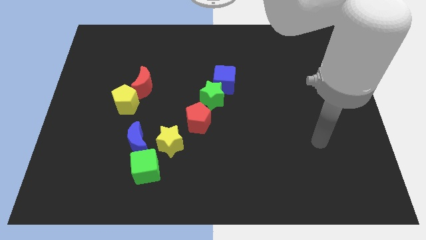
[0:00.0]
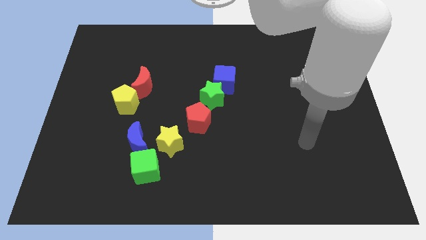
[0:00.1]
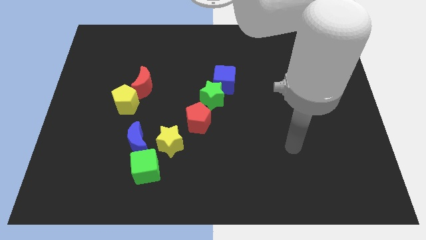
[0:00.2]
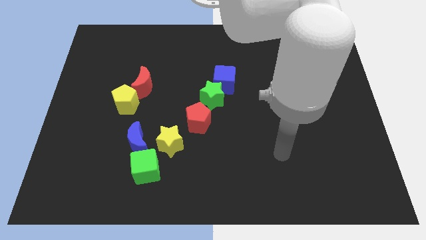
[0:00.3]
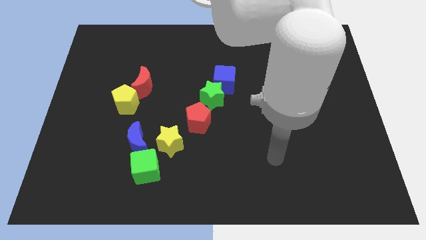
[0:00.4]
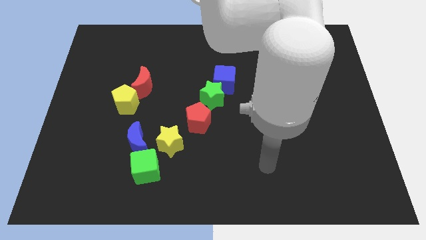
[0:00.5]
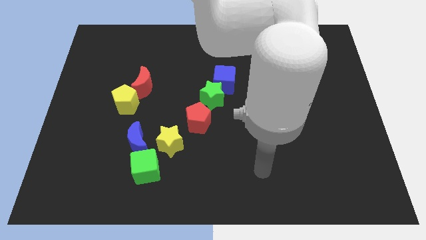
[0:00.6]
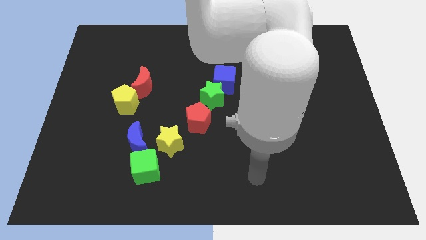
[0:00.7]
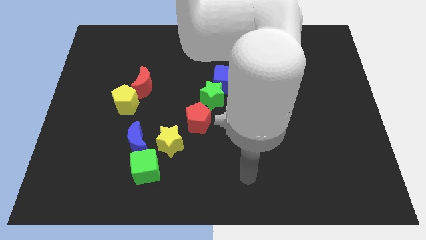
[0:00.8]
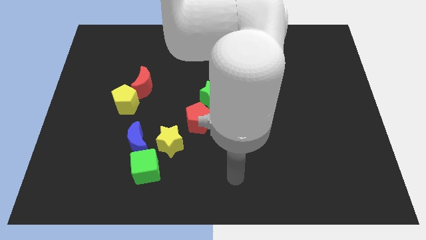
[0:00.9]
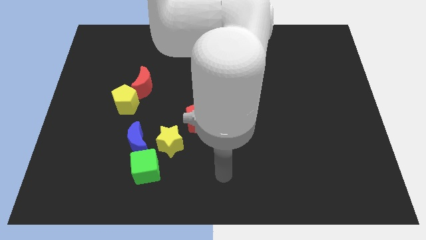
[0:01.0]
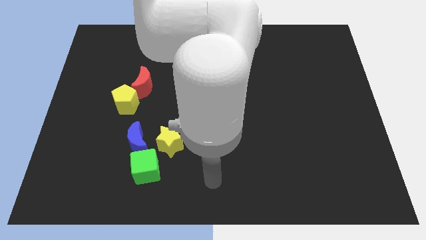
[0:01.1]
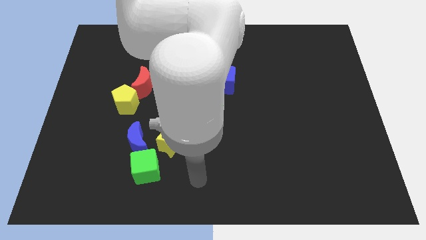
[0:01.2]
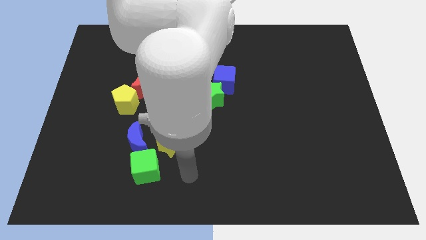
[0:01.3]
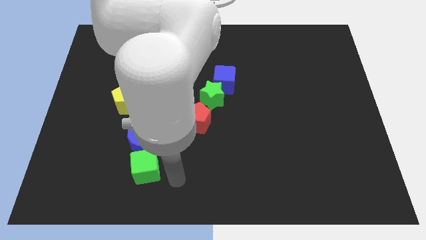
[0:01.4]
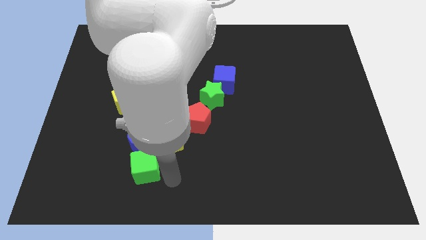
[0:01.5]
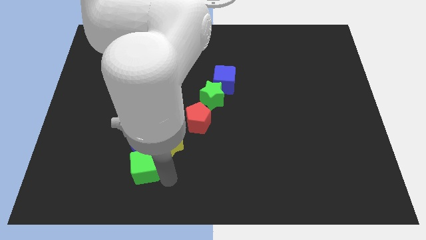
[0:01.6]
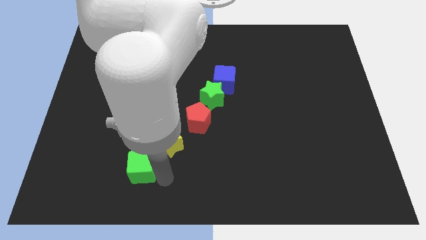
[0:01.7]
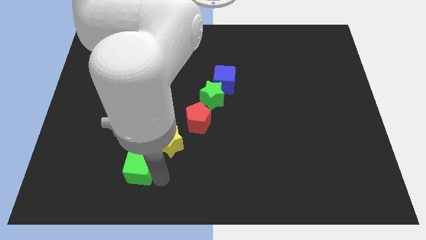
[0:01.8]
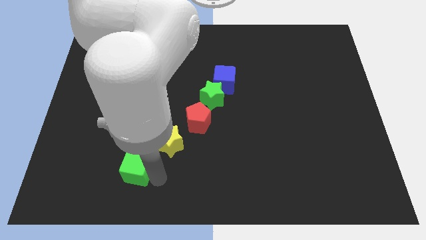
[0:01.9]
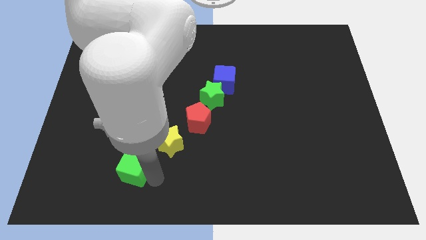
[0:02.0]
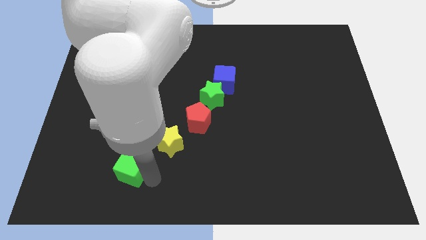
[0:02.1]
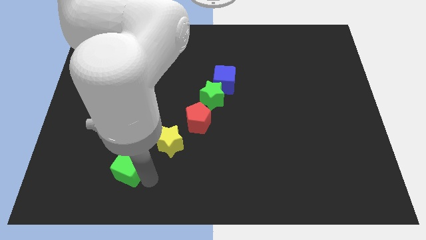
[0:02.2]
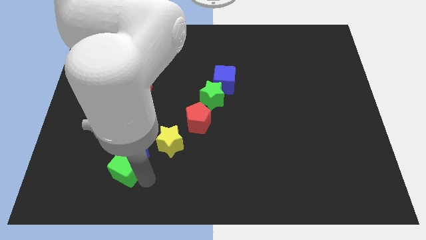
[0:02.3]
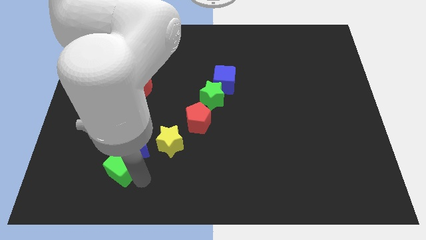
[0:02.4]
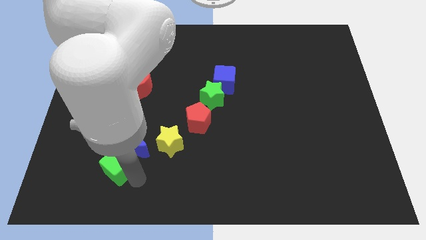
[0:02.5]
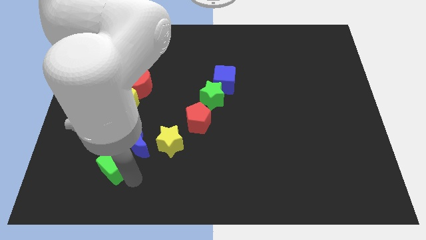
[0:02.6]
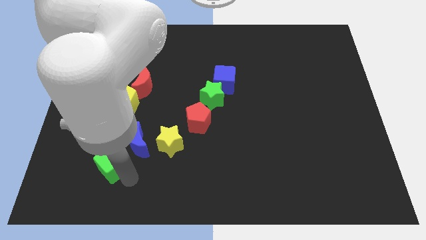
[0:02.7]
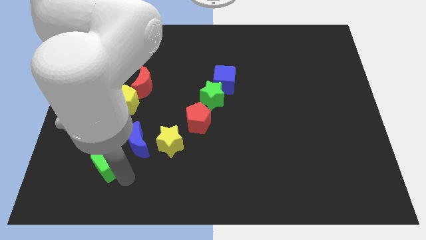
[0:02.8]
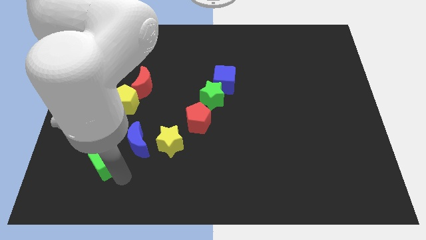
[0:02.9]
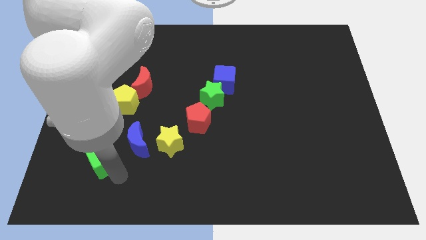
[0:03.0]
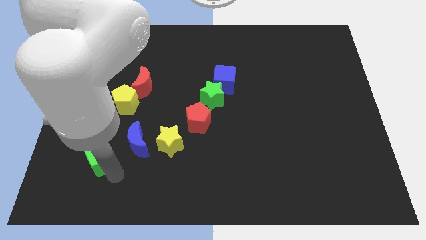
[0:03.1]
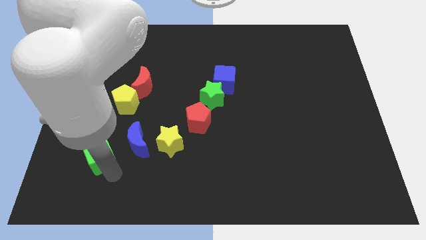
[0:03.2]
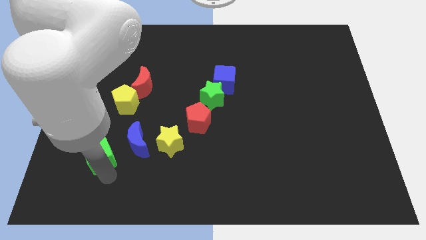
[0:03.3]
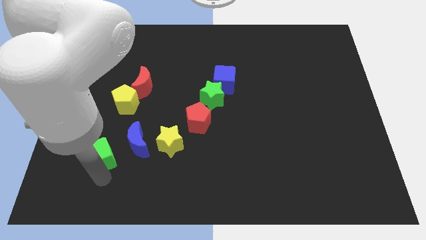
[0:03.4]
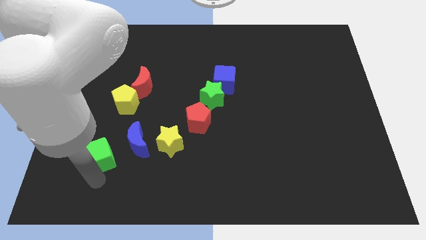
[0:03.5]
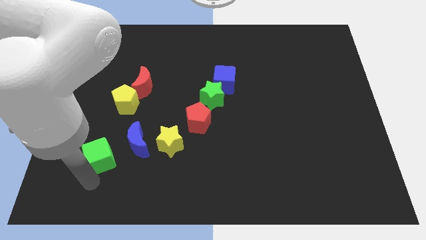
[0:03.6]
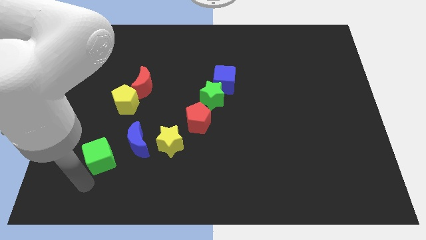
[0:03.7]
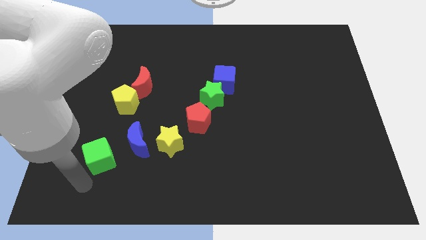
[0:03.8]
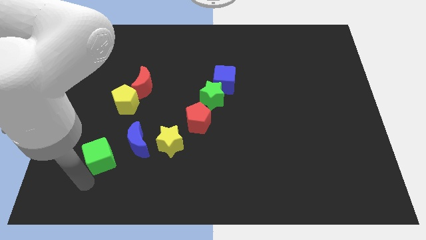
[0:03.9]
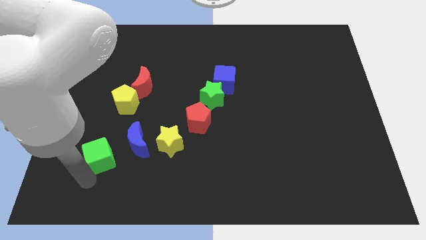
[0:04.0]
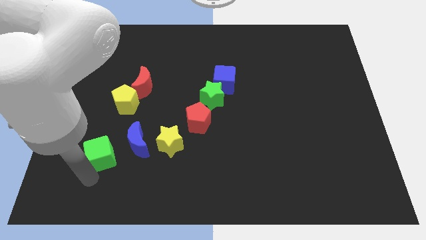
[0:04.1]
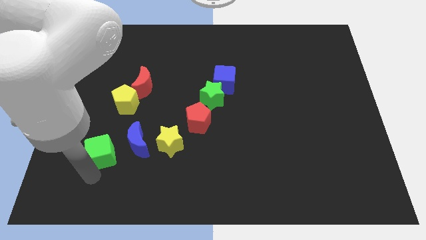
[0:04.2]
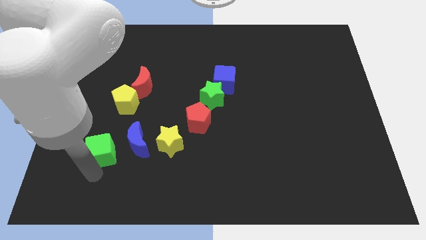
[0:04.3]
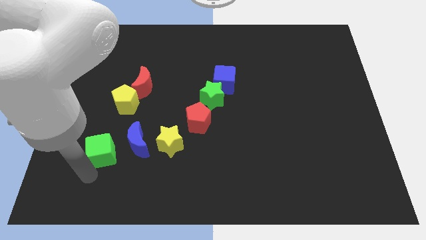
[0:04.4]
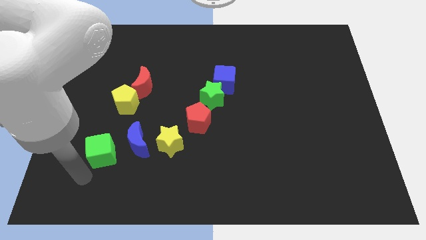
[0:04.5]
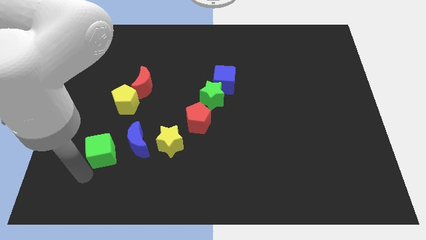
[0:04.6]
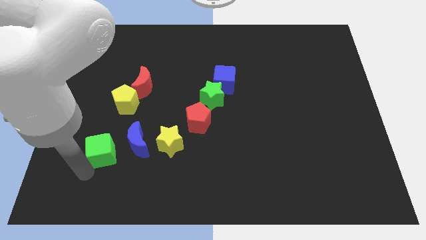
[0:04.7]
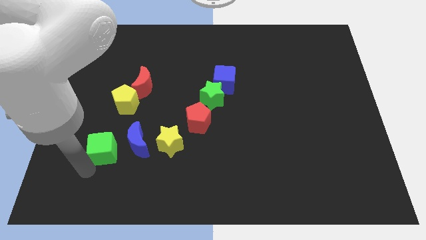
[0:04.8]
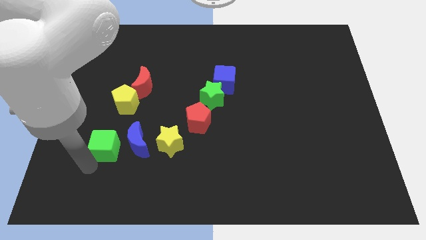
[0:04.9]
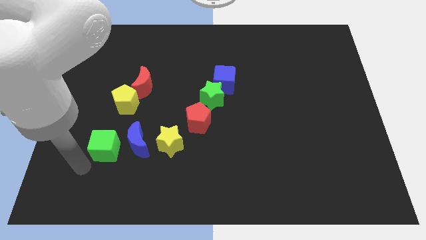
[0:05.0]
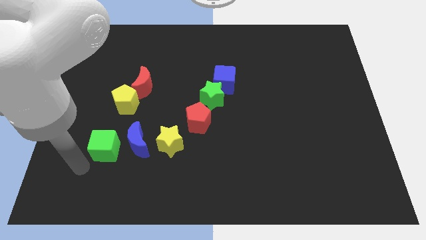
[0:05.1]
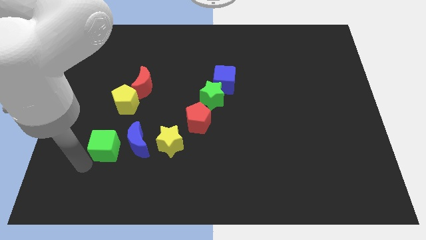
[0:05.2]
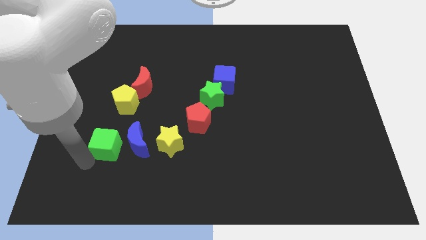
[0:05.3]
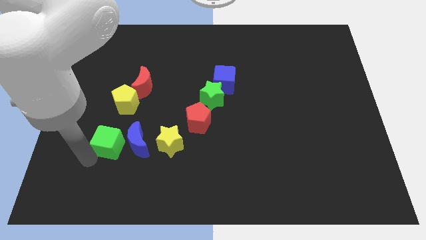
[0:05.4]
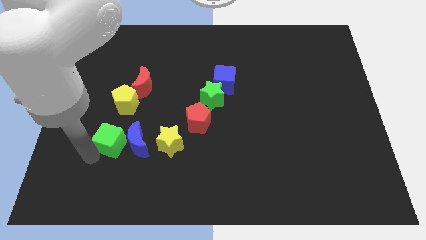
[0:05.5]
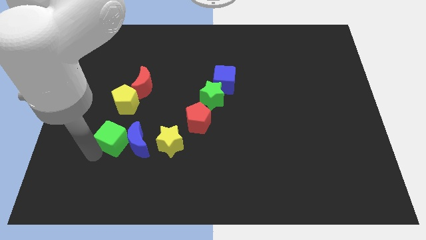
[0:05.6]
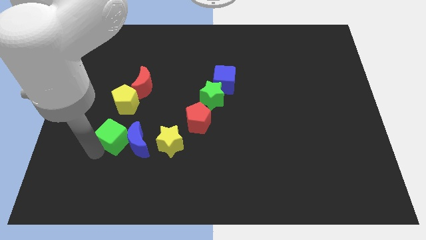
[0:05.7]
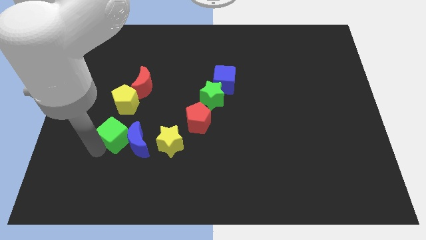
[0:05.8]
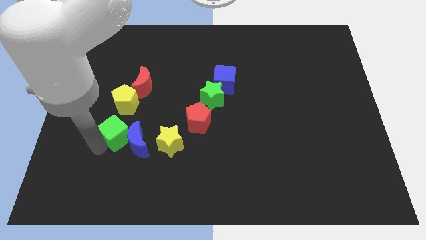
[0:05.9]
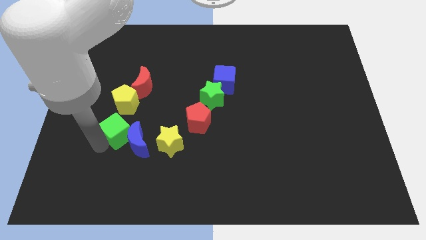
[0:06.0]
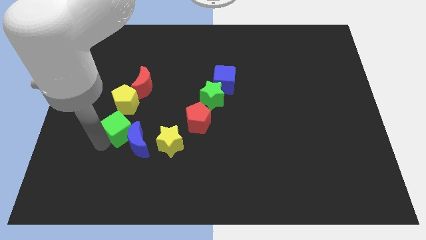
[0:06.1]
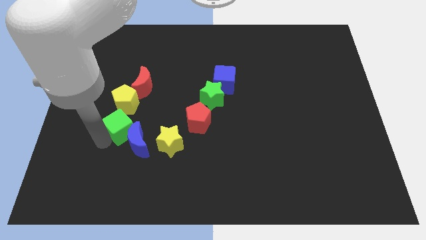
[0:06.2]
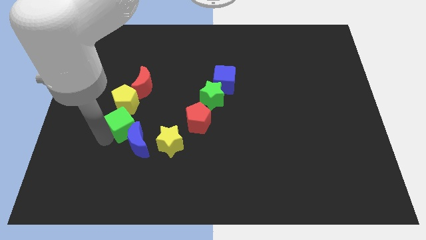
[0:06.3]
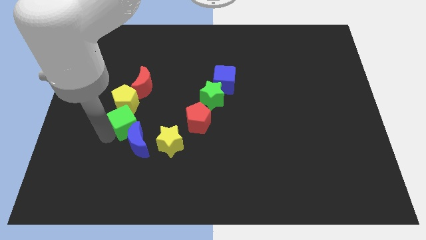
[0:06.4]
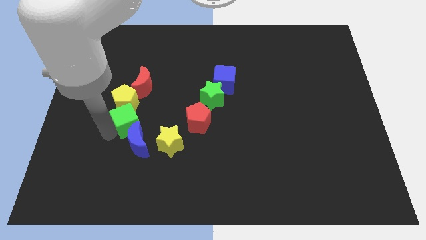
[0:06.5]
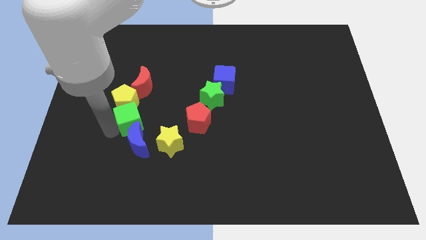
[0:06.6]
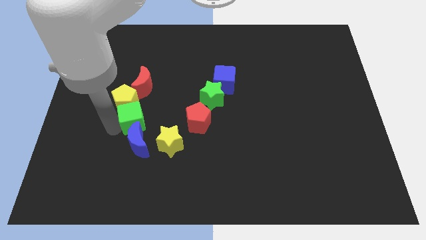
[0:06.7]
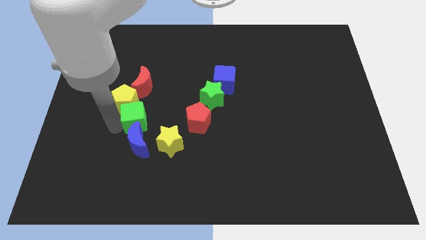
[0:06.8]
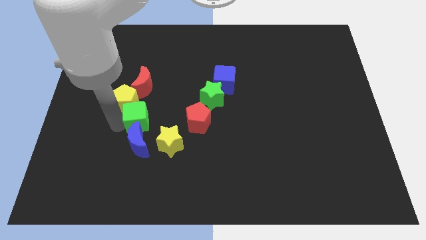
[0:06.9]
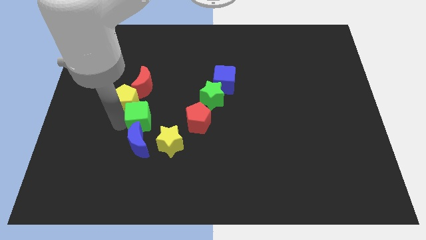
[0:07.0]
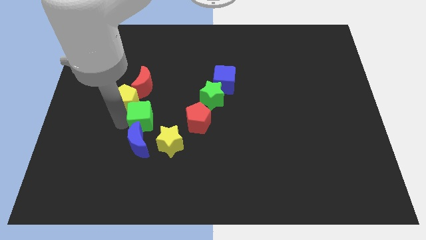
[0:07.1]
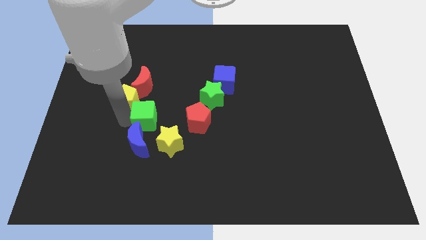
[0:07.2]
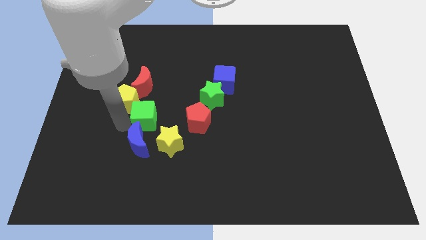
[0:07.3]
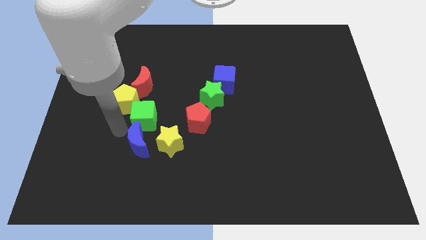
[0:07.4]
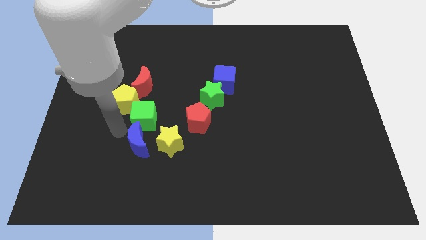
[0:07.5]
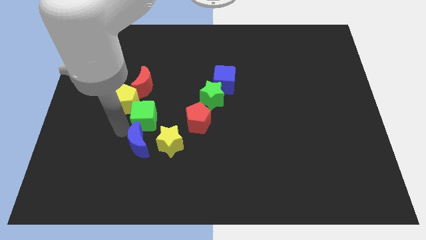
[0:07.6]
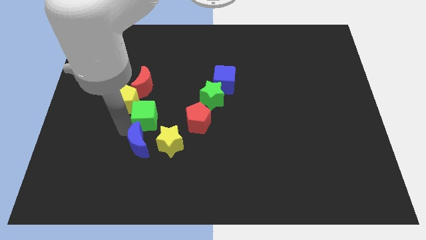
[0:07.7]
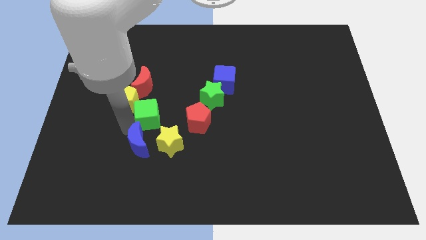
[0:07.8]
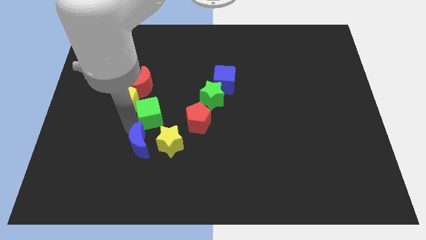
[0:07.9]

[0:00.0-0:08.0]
push the green cube to the top of the yellow star
